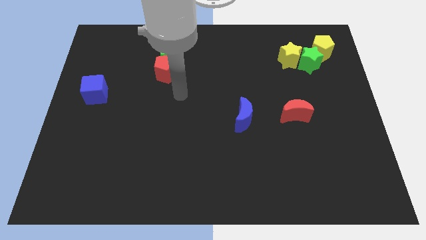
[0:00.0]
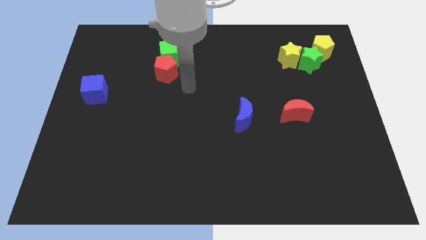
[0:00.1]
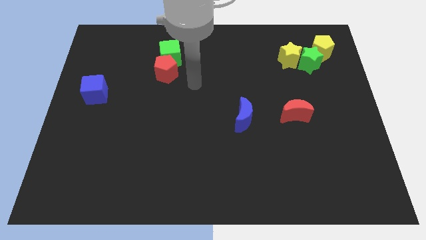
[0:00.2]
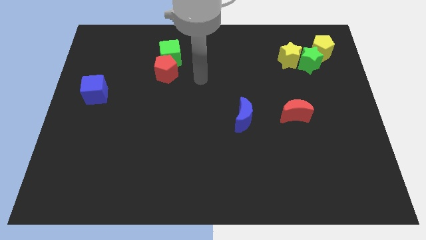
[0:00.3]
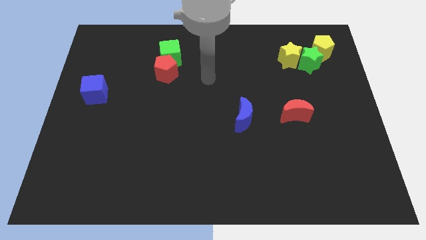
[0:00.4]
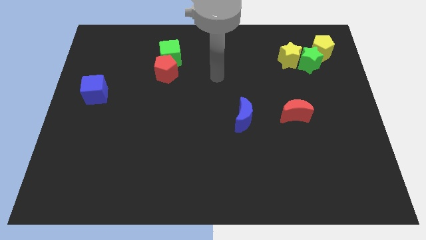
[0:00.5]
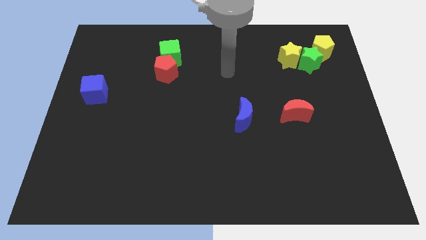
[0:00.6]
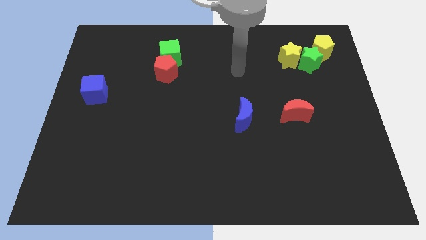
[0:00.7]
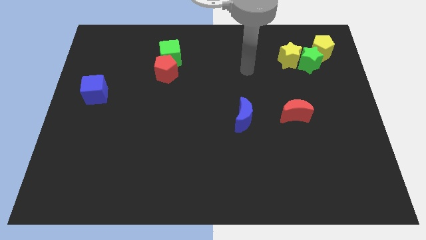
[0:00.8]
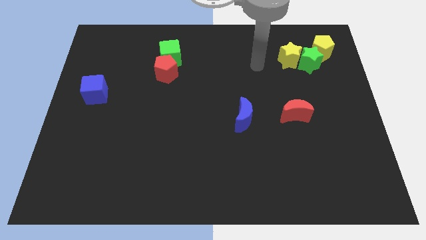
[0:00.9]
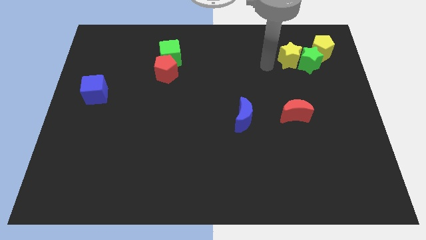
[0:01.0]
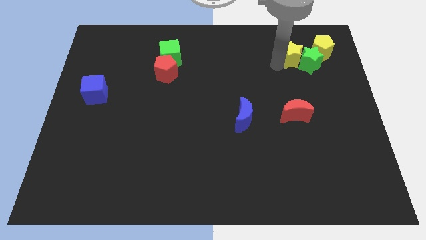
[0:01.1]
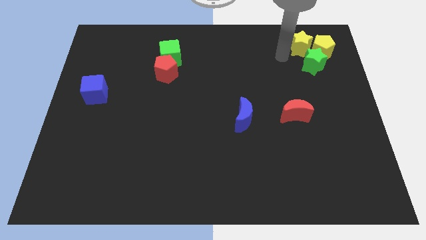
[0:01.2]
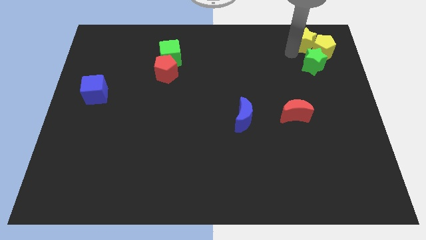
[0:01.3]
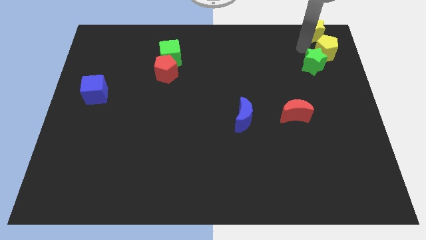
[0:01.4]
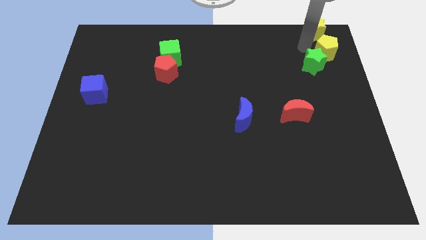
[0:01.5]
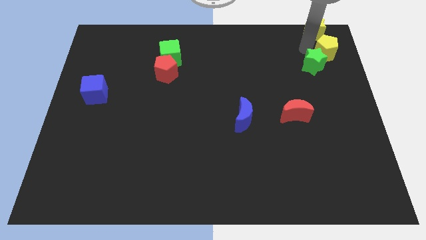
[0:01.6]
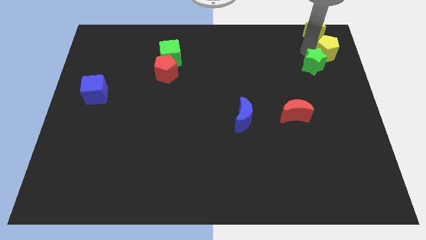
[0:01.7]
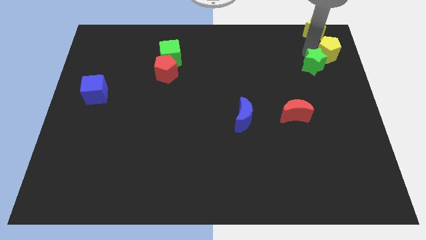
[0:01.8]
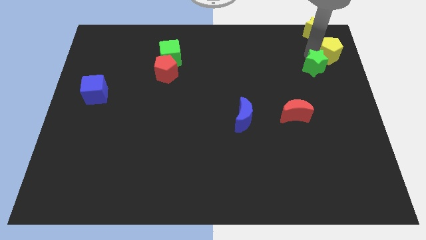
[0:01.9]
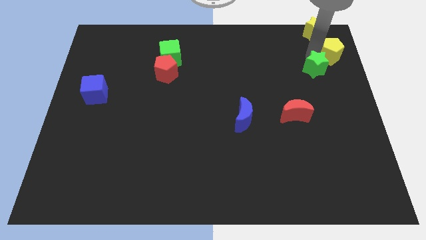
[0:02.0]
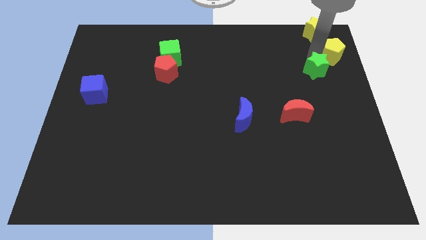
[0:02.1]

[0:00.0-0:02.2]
separate the green star from the yellow star and yellow pentagon

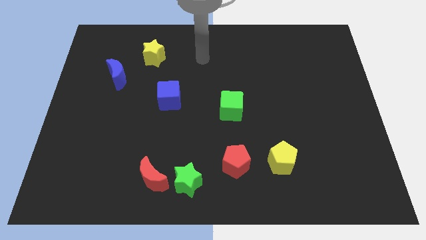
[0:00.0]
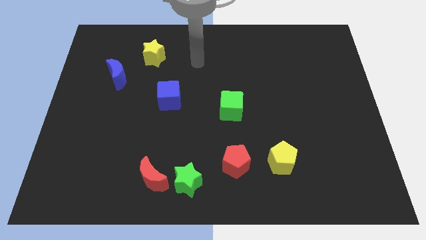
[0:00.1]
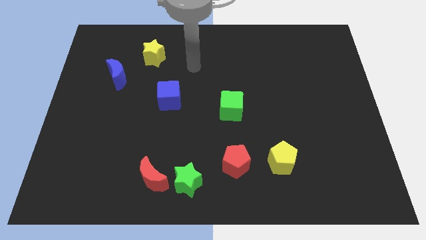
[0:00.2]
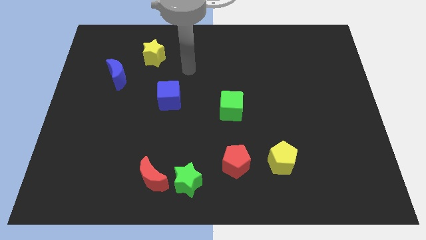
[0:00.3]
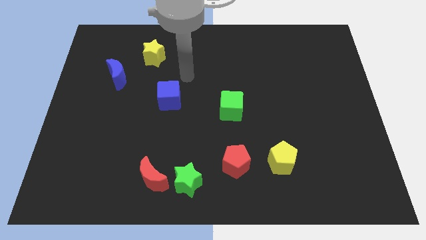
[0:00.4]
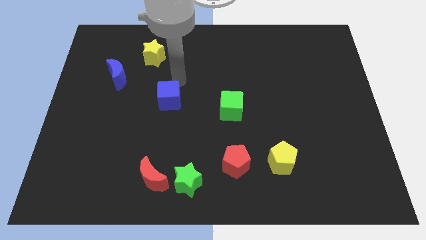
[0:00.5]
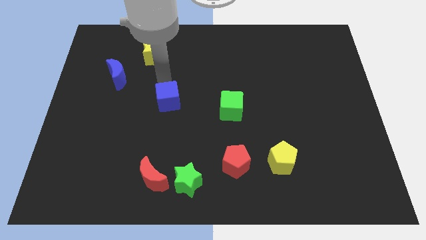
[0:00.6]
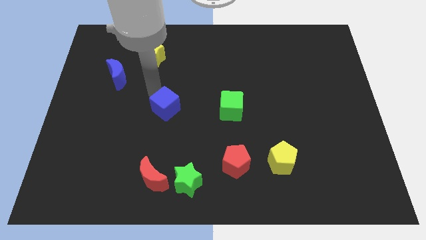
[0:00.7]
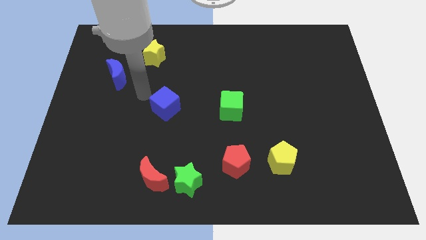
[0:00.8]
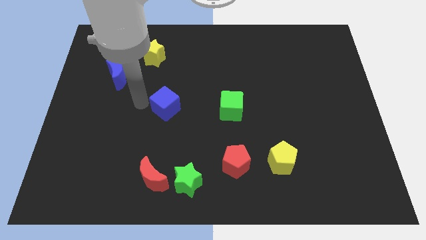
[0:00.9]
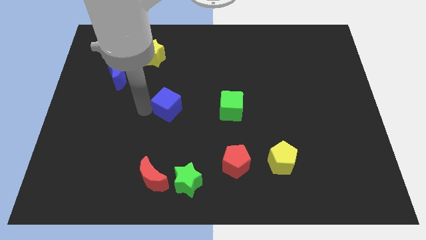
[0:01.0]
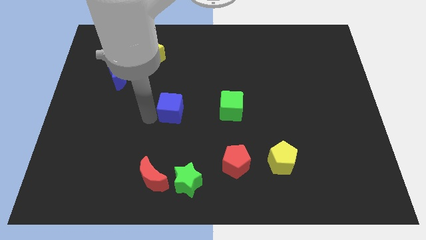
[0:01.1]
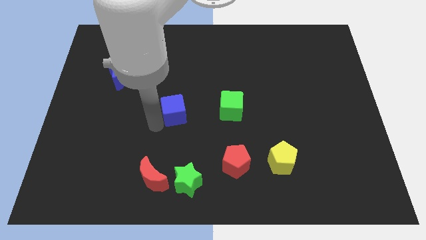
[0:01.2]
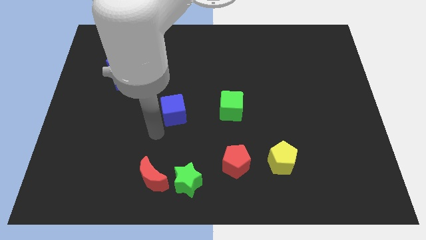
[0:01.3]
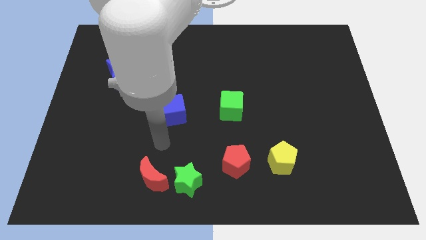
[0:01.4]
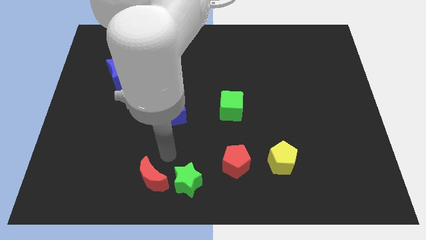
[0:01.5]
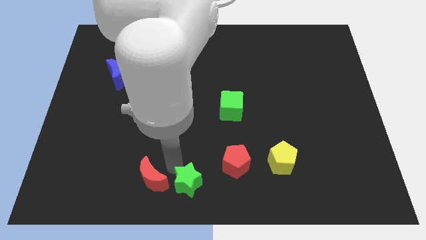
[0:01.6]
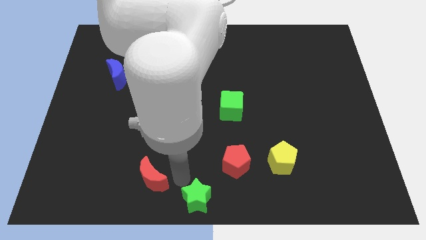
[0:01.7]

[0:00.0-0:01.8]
pull the red moon apart from the green star

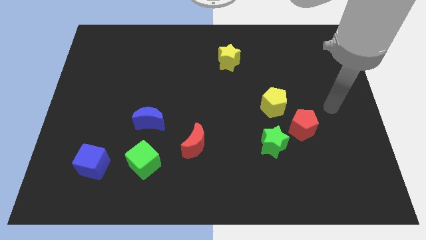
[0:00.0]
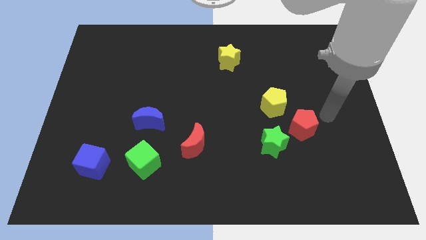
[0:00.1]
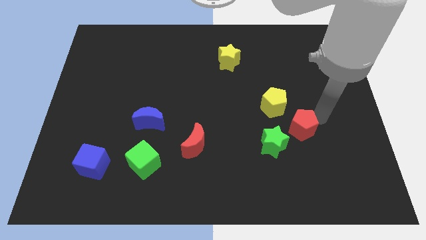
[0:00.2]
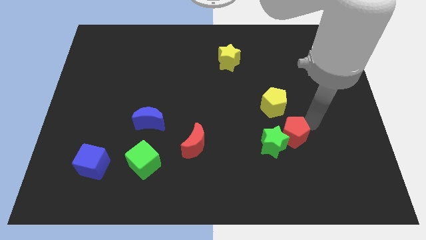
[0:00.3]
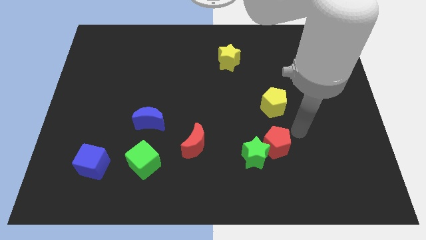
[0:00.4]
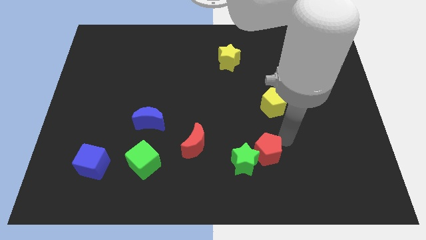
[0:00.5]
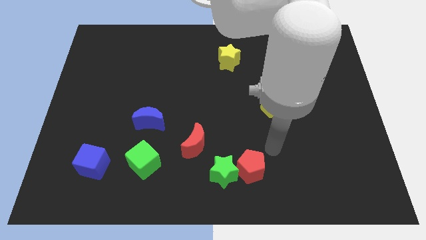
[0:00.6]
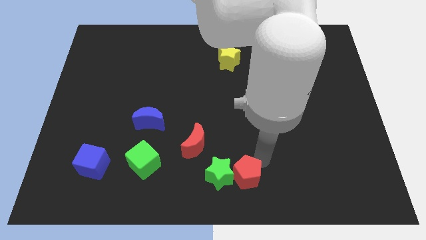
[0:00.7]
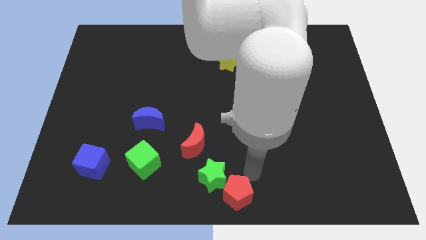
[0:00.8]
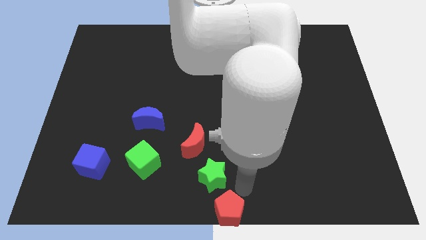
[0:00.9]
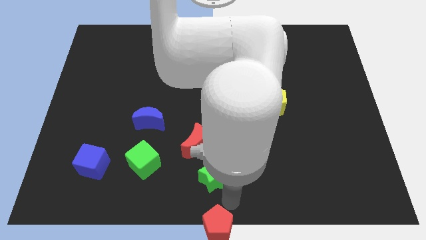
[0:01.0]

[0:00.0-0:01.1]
separate the green star from the red pentagon

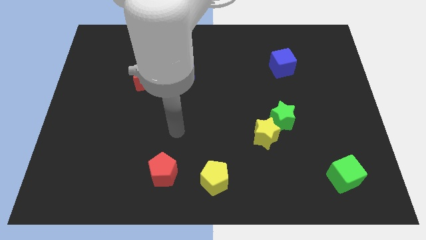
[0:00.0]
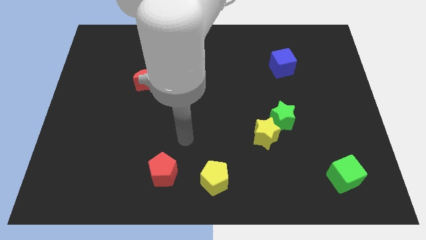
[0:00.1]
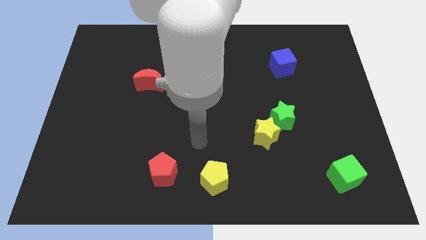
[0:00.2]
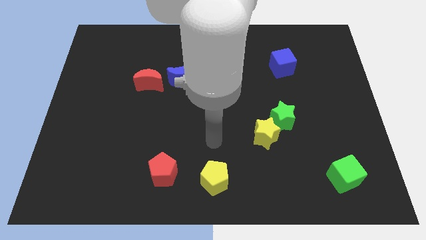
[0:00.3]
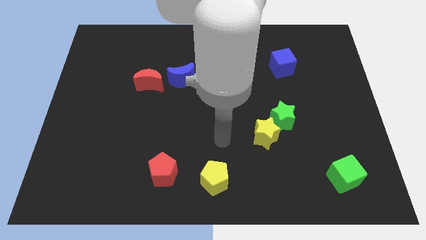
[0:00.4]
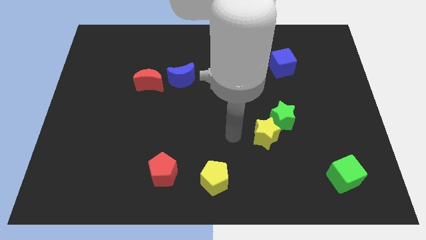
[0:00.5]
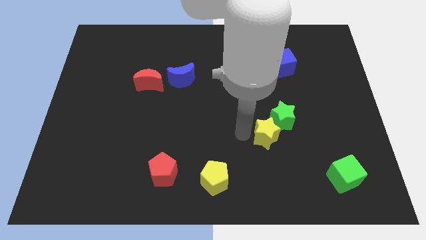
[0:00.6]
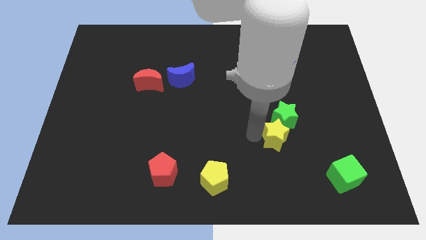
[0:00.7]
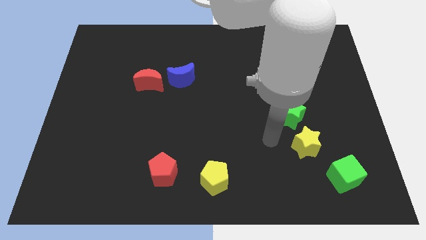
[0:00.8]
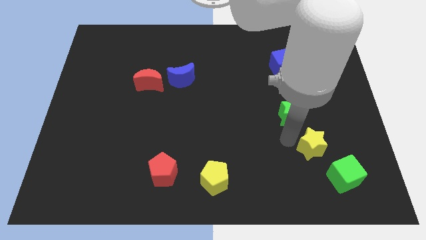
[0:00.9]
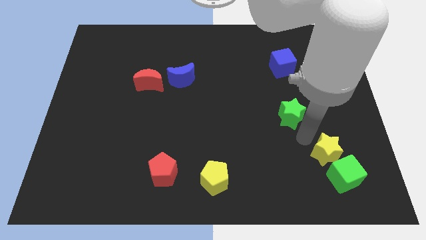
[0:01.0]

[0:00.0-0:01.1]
pull the green star apart from the yellow star

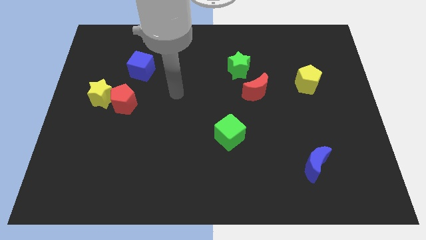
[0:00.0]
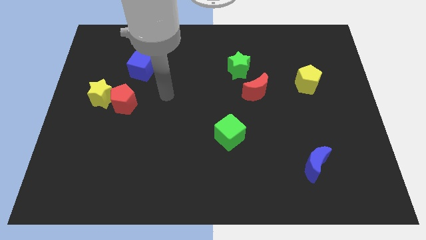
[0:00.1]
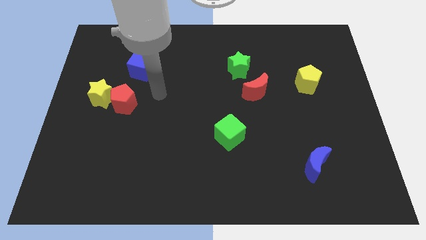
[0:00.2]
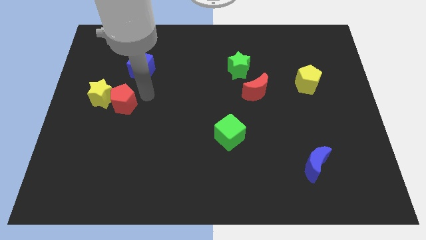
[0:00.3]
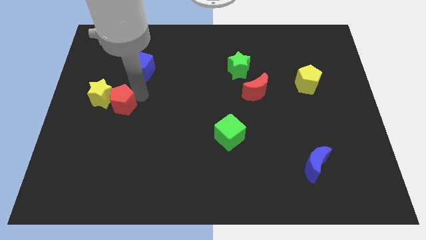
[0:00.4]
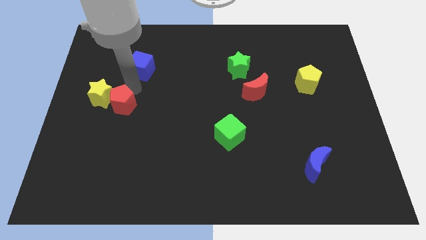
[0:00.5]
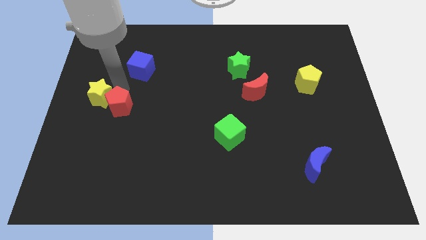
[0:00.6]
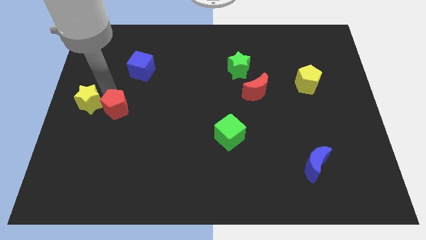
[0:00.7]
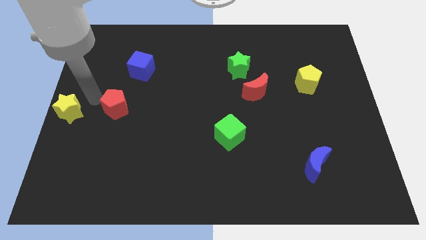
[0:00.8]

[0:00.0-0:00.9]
move the red pentagon away from the yellow star

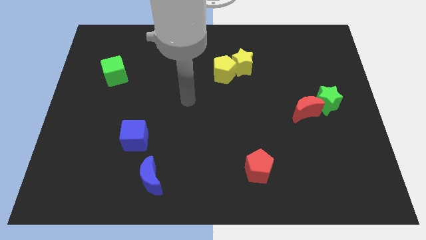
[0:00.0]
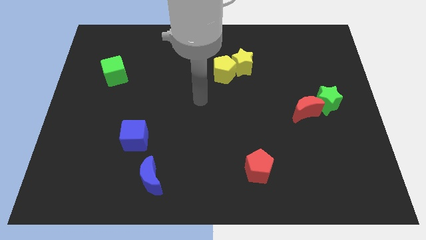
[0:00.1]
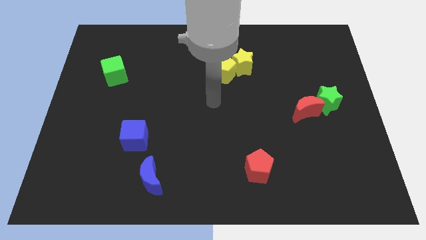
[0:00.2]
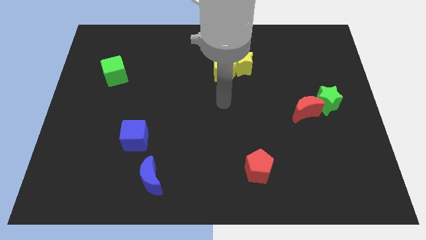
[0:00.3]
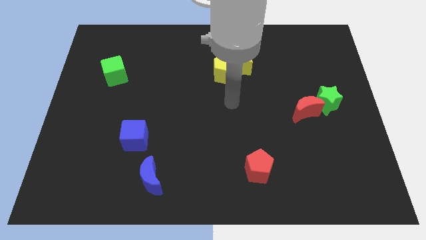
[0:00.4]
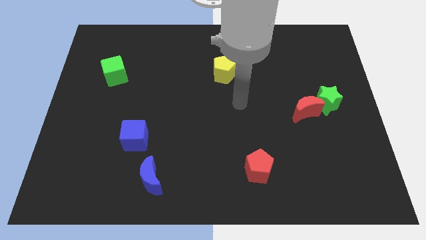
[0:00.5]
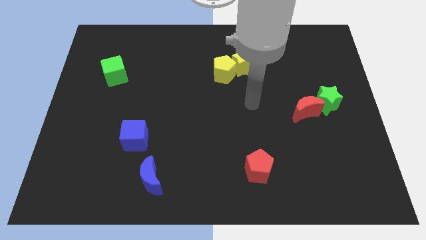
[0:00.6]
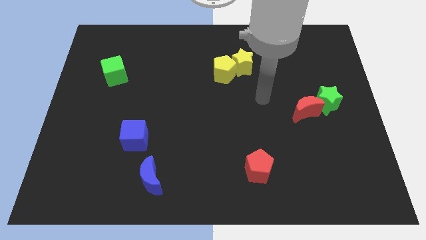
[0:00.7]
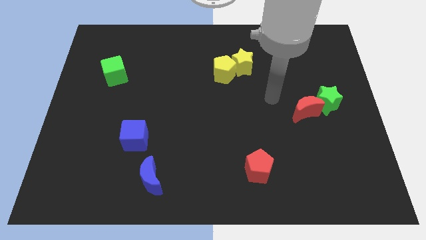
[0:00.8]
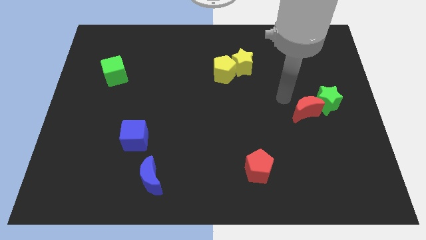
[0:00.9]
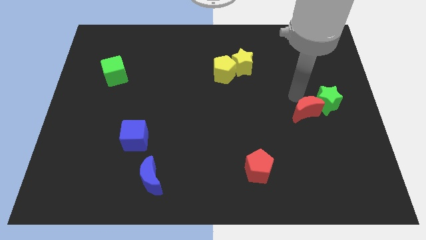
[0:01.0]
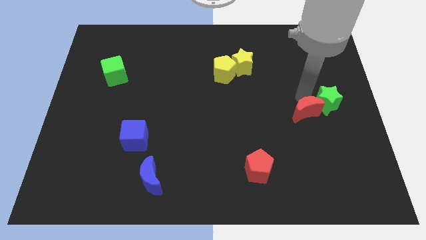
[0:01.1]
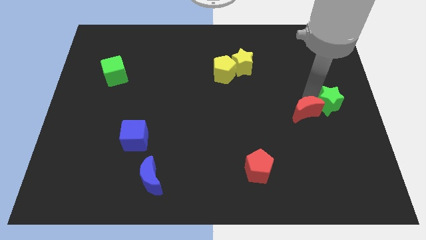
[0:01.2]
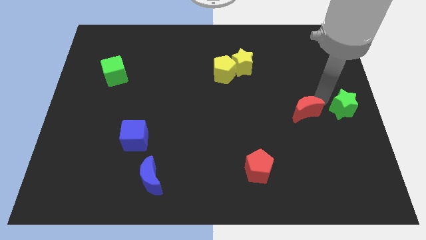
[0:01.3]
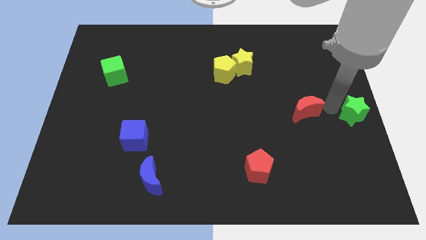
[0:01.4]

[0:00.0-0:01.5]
separate the red moon from the green star

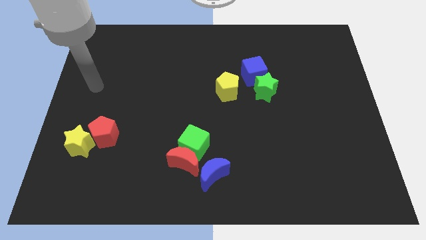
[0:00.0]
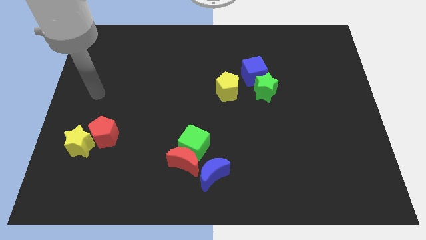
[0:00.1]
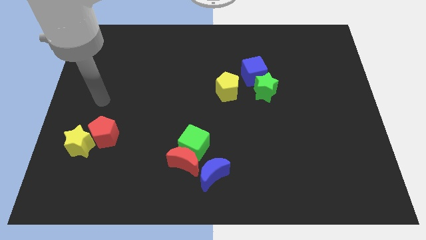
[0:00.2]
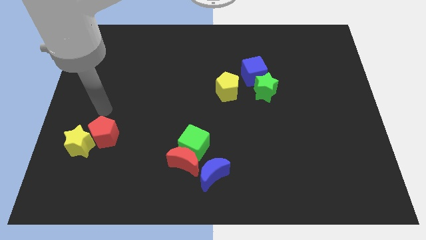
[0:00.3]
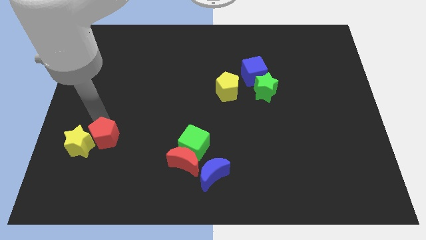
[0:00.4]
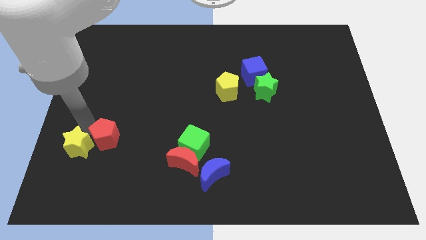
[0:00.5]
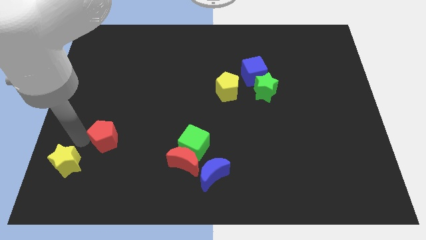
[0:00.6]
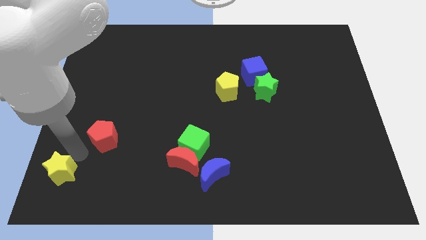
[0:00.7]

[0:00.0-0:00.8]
pull the red pentagon apart from the yellow star
